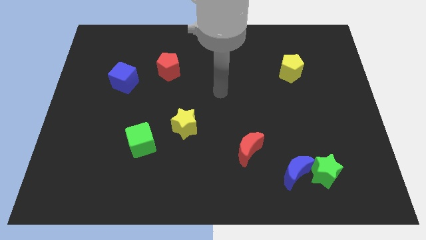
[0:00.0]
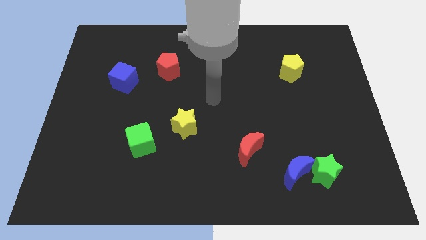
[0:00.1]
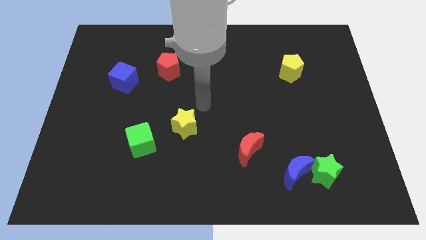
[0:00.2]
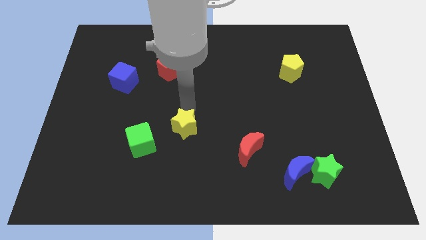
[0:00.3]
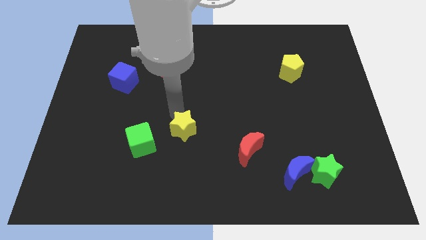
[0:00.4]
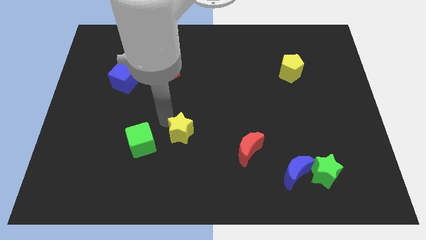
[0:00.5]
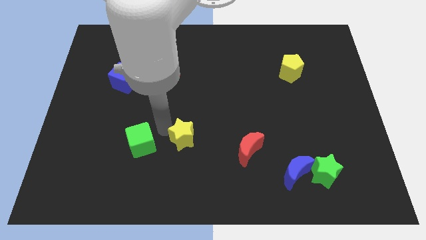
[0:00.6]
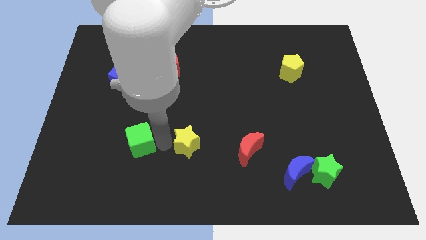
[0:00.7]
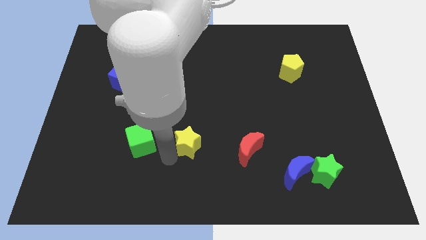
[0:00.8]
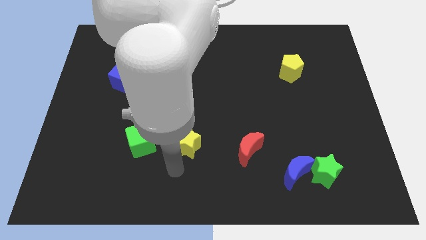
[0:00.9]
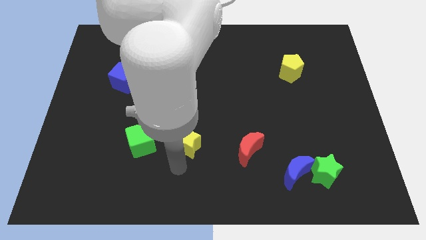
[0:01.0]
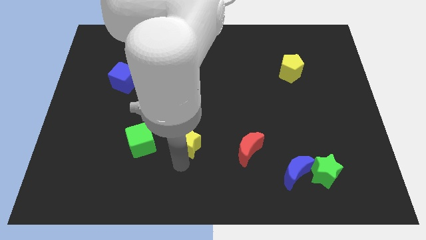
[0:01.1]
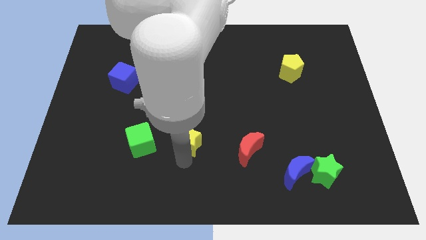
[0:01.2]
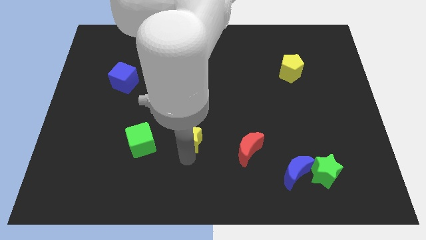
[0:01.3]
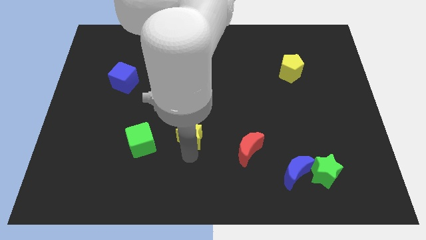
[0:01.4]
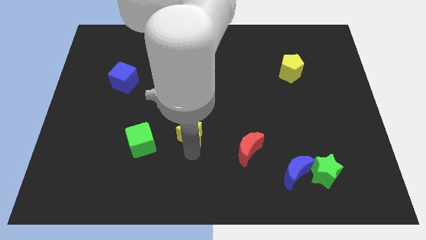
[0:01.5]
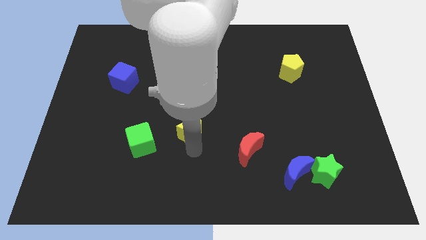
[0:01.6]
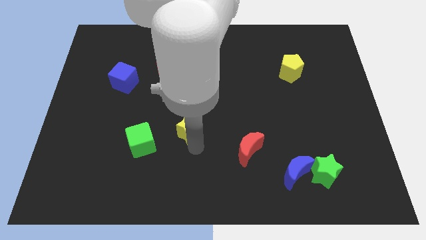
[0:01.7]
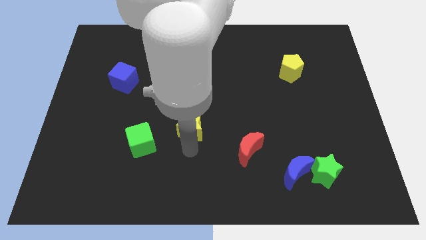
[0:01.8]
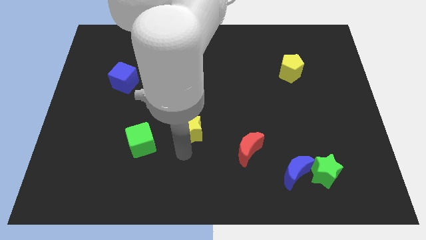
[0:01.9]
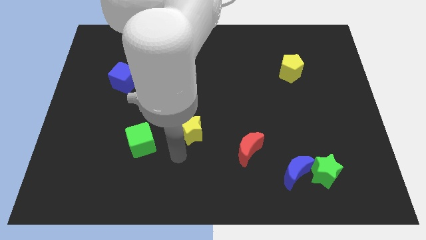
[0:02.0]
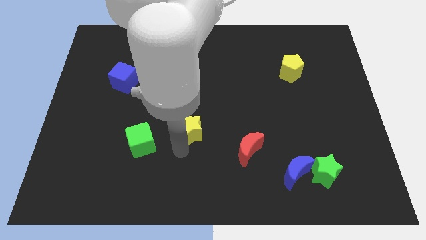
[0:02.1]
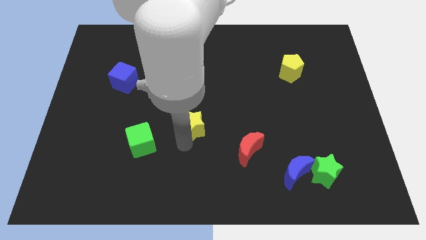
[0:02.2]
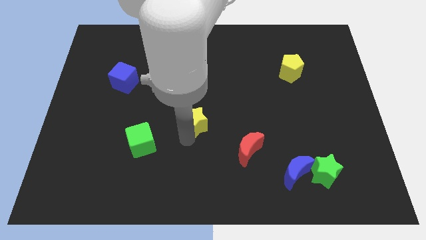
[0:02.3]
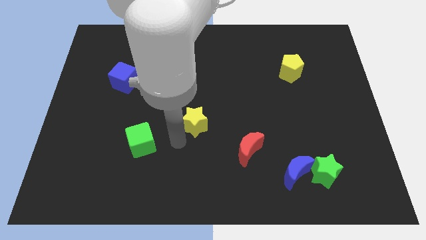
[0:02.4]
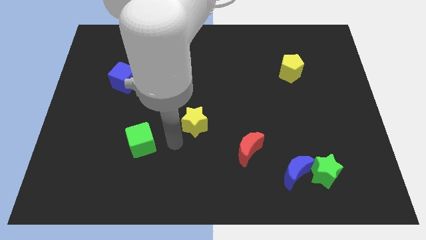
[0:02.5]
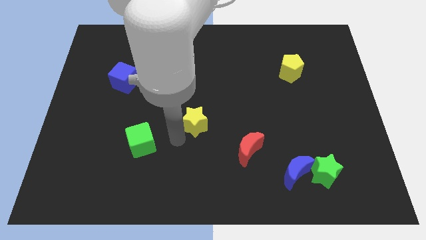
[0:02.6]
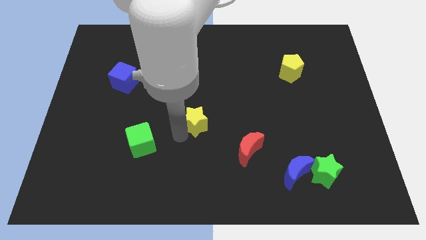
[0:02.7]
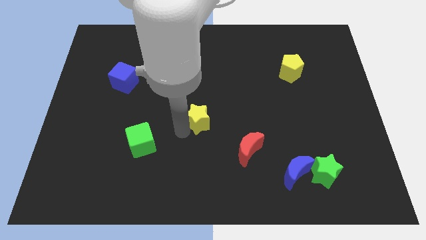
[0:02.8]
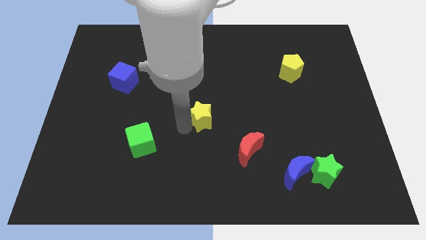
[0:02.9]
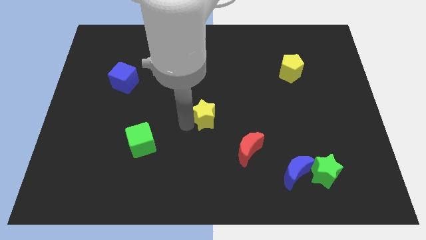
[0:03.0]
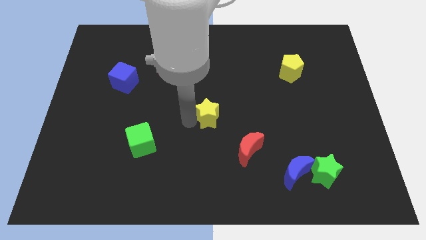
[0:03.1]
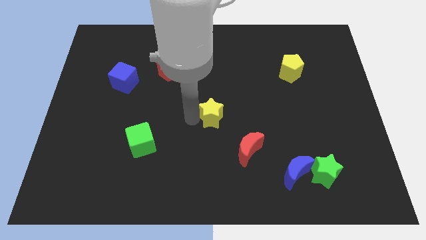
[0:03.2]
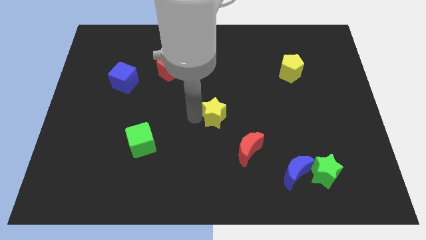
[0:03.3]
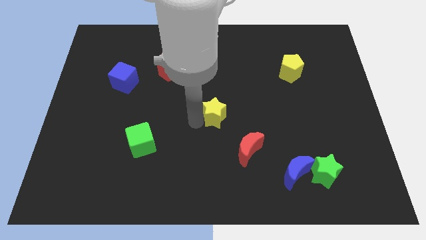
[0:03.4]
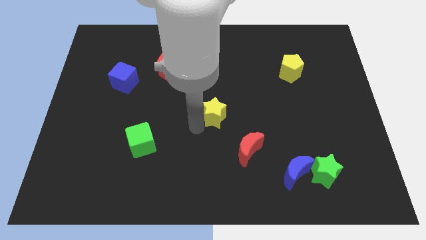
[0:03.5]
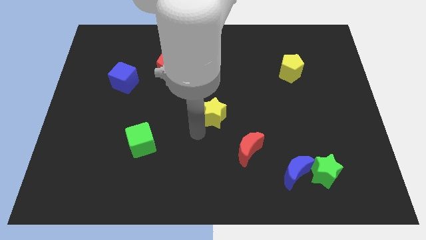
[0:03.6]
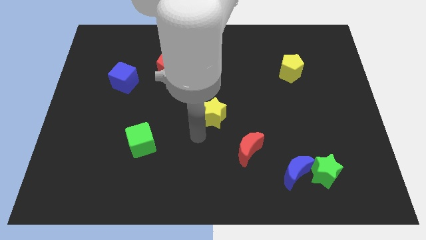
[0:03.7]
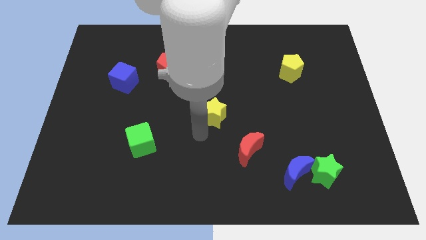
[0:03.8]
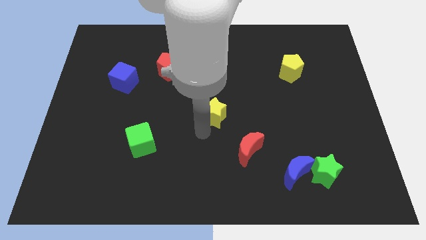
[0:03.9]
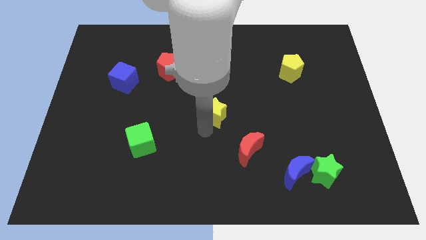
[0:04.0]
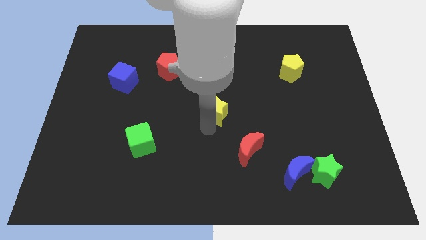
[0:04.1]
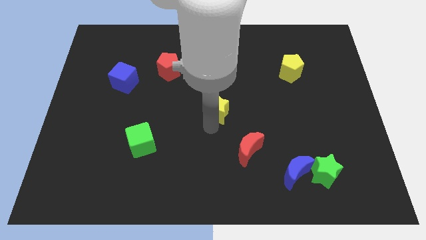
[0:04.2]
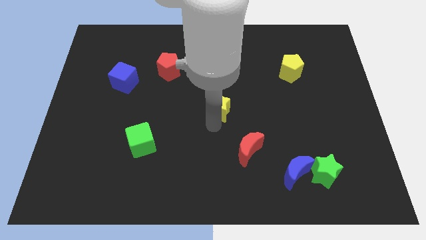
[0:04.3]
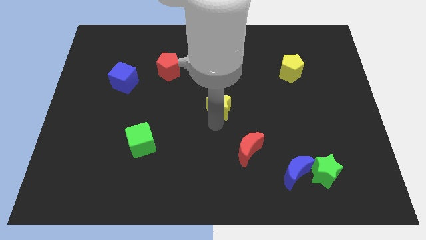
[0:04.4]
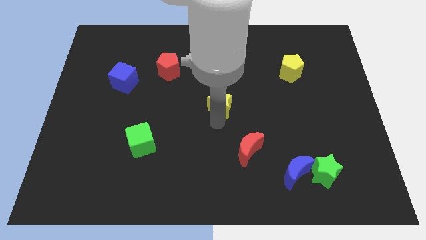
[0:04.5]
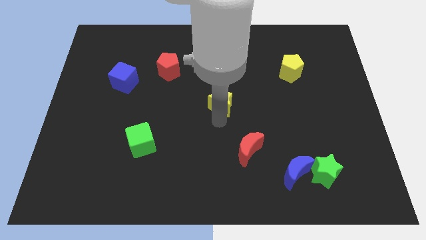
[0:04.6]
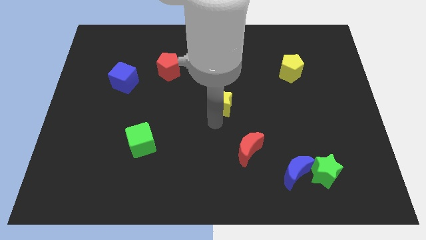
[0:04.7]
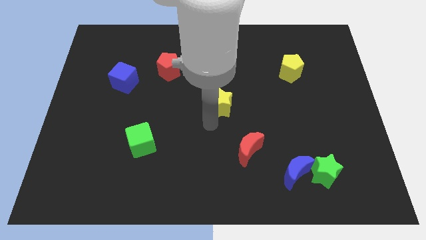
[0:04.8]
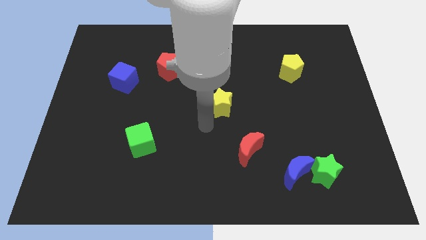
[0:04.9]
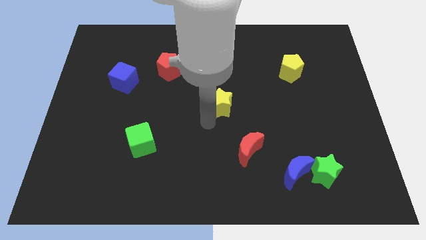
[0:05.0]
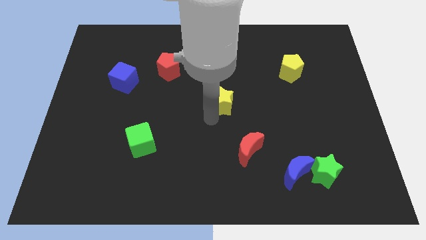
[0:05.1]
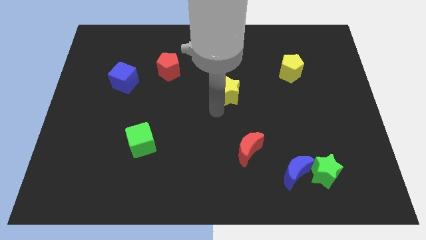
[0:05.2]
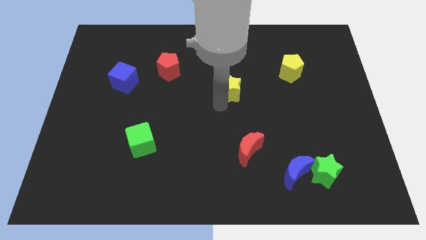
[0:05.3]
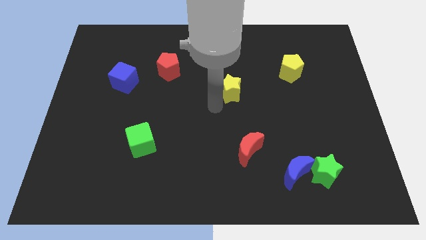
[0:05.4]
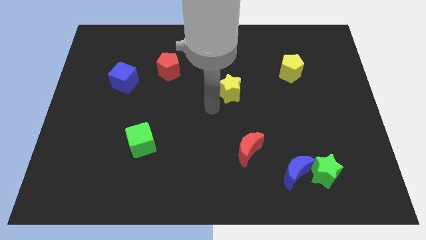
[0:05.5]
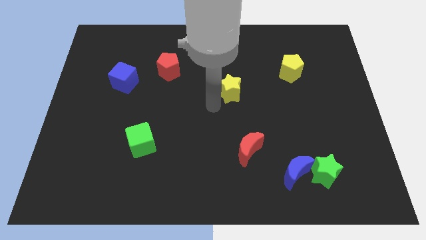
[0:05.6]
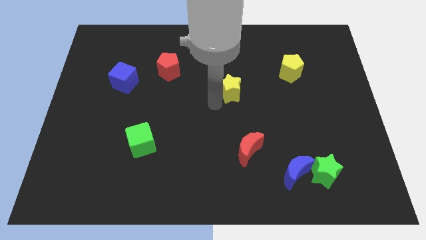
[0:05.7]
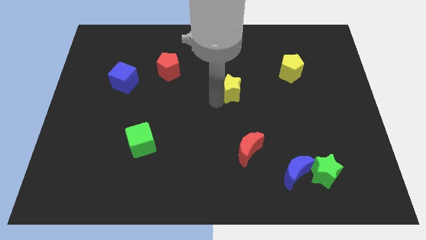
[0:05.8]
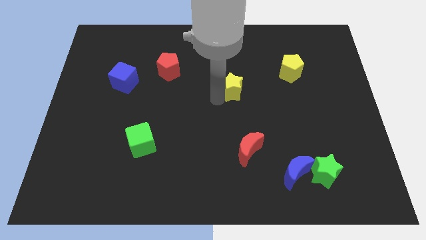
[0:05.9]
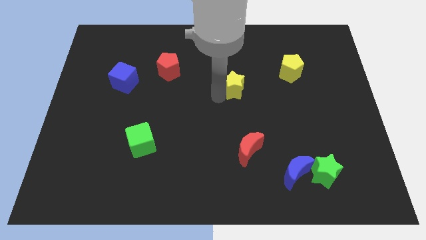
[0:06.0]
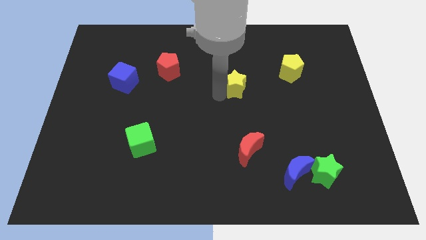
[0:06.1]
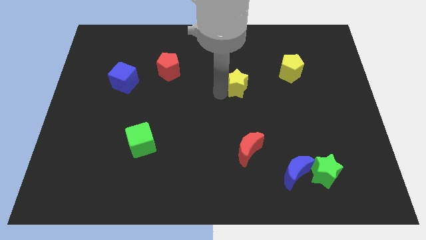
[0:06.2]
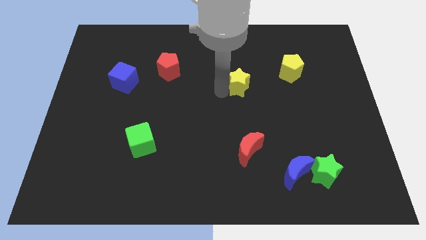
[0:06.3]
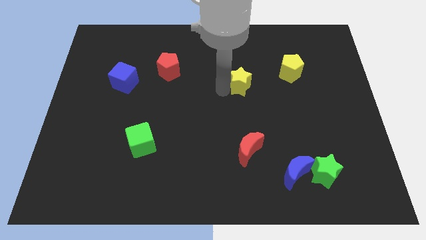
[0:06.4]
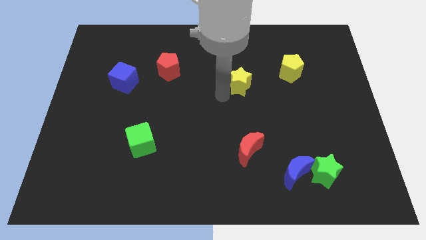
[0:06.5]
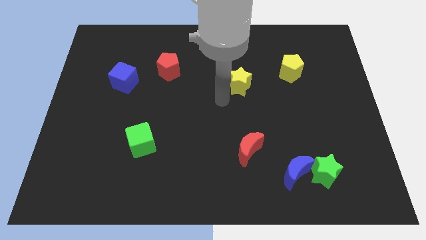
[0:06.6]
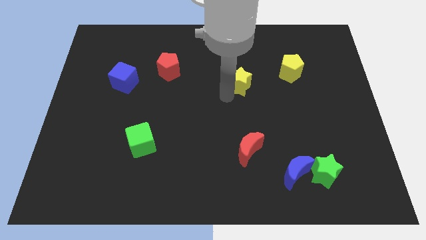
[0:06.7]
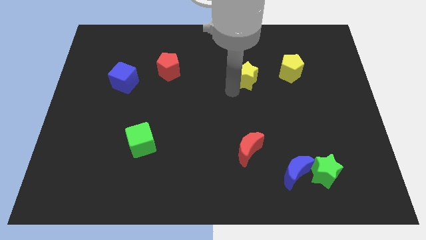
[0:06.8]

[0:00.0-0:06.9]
push the yellow star upwards and then right

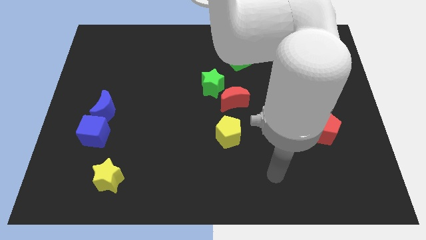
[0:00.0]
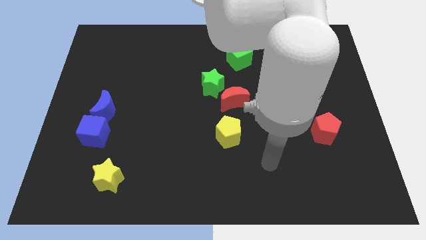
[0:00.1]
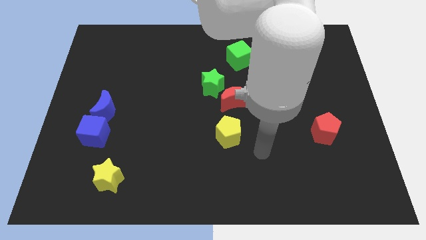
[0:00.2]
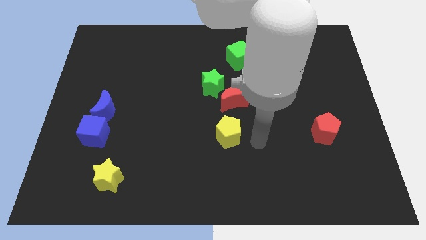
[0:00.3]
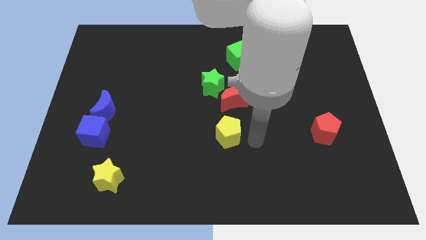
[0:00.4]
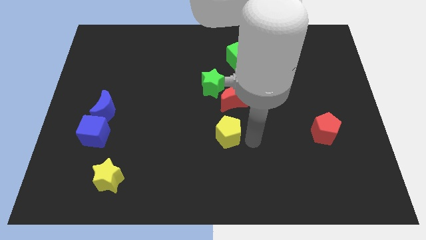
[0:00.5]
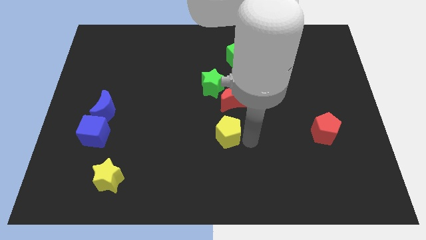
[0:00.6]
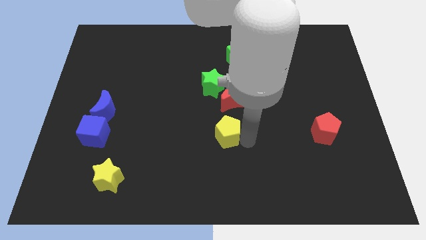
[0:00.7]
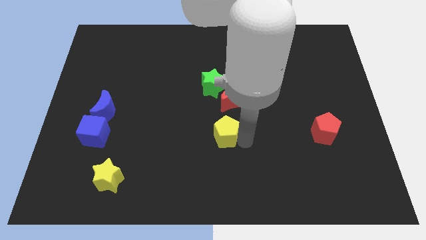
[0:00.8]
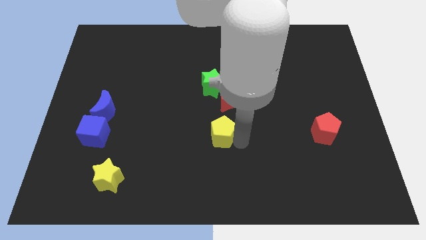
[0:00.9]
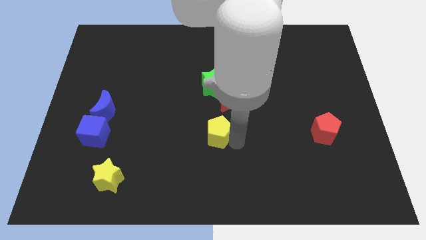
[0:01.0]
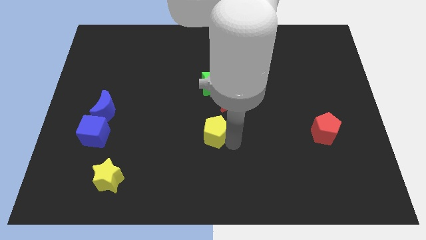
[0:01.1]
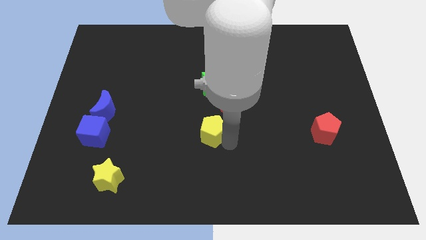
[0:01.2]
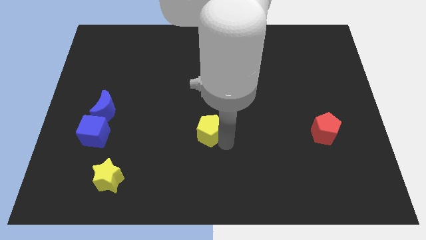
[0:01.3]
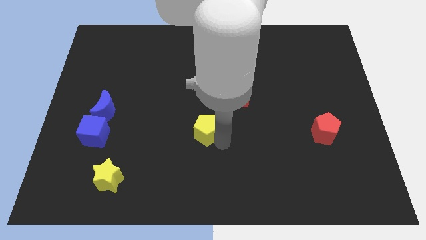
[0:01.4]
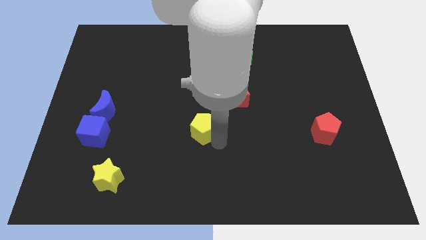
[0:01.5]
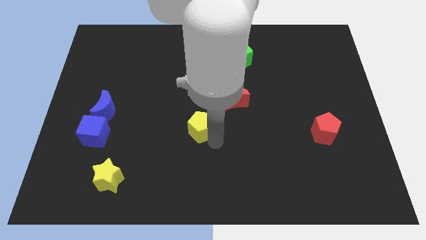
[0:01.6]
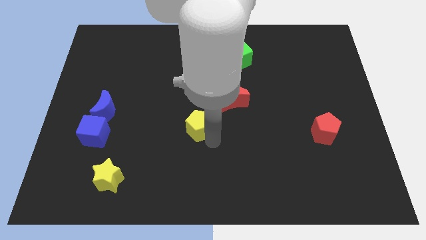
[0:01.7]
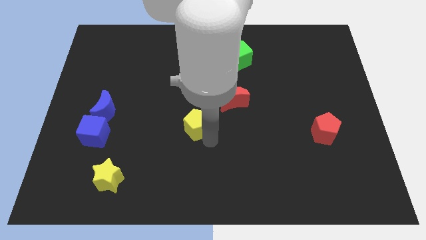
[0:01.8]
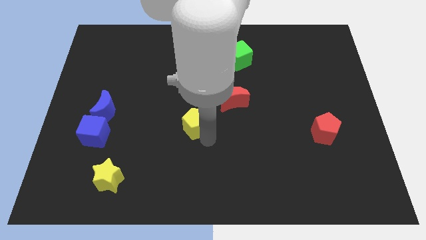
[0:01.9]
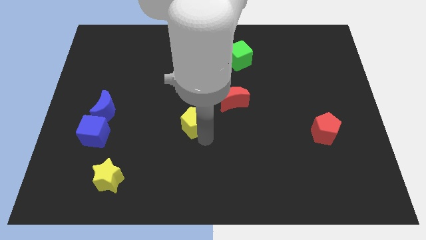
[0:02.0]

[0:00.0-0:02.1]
slide the yellow pentagon somewhat diagonally up and to the left
